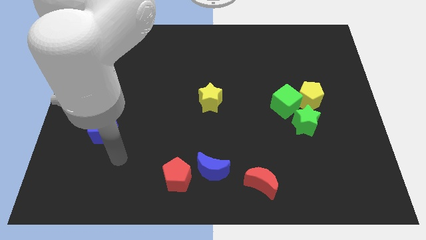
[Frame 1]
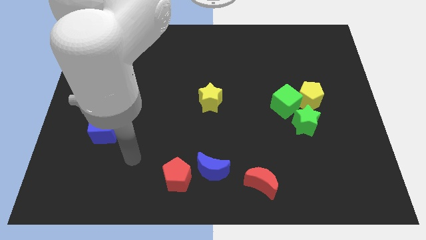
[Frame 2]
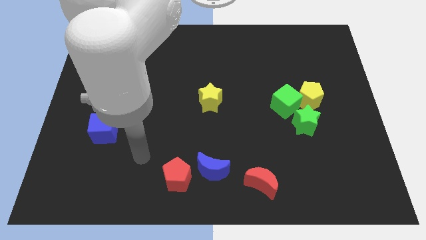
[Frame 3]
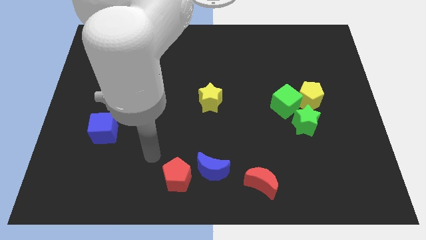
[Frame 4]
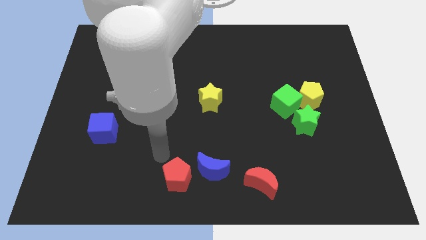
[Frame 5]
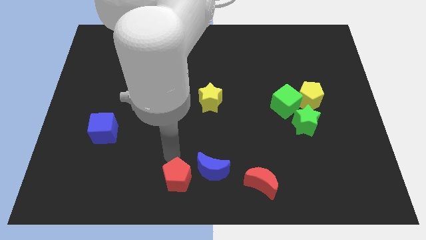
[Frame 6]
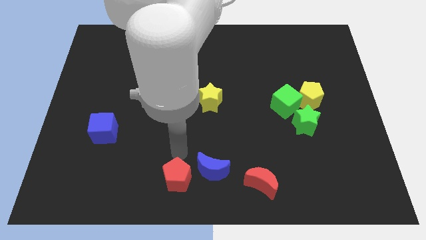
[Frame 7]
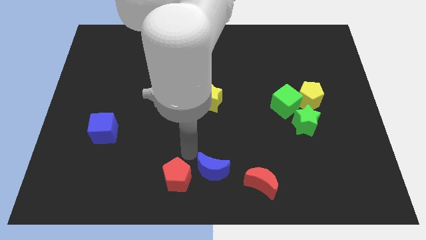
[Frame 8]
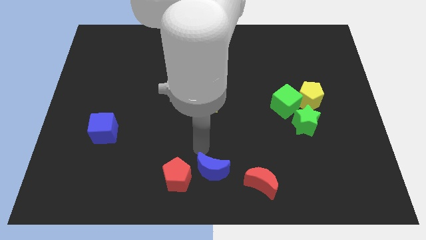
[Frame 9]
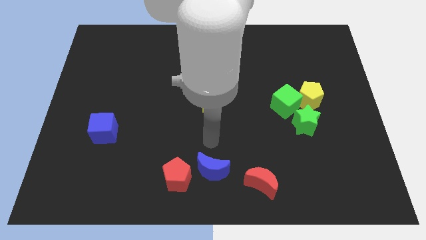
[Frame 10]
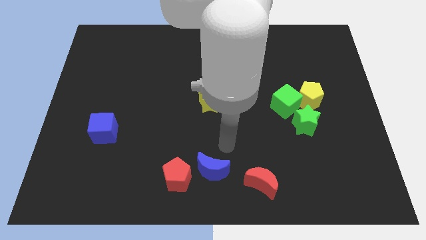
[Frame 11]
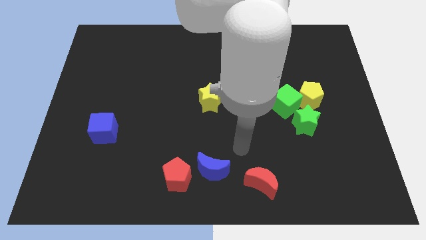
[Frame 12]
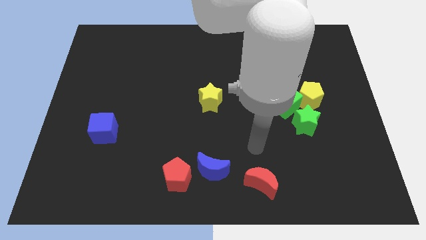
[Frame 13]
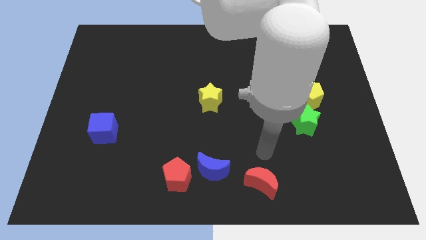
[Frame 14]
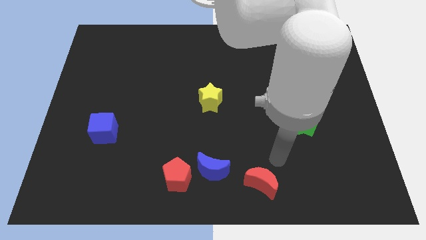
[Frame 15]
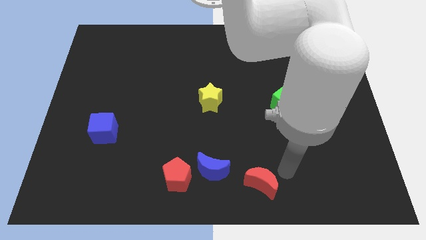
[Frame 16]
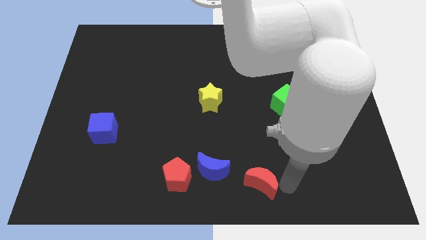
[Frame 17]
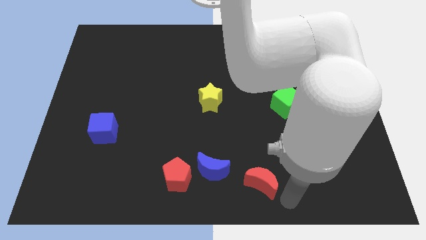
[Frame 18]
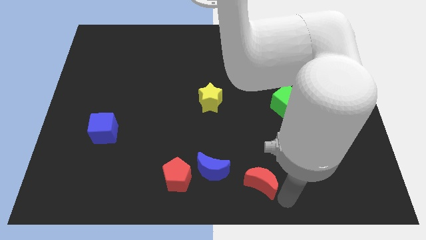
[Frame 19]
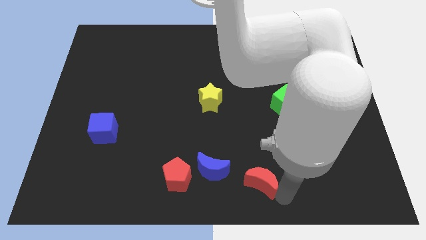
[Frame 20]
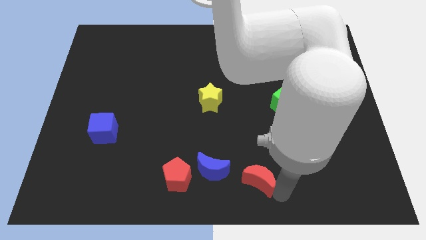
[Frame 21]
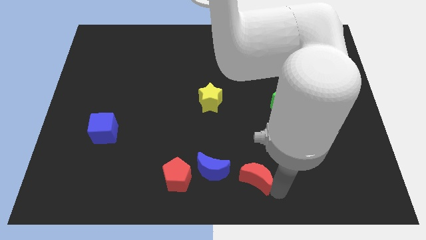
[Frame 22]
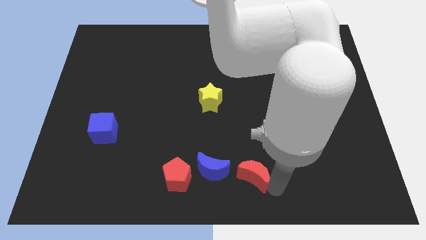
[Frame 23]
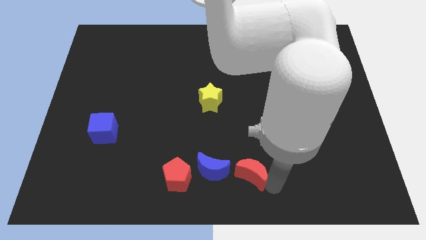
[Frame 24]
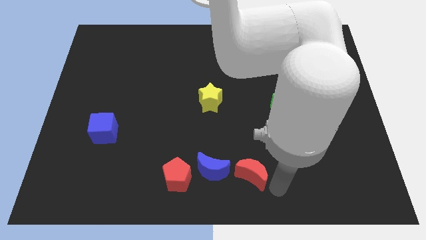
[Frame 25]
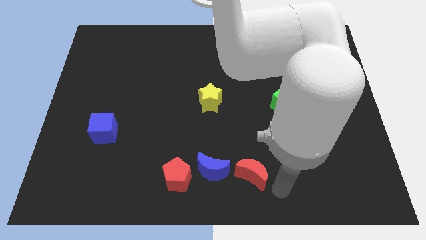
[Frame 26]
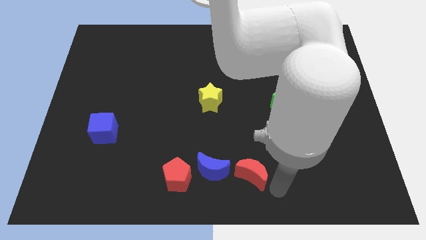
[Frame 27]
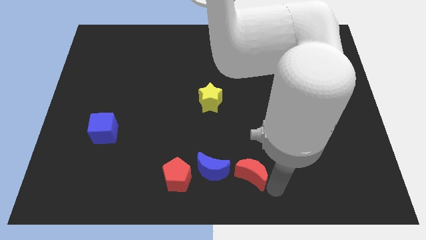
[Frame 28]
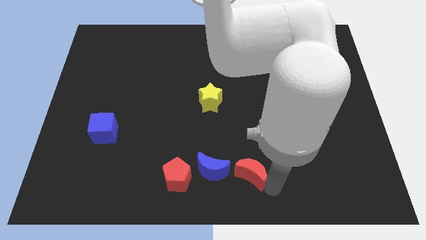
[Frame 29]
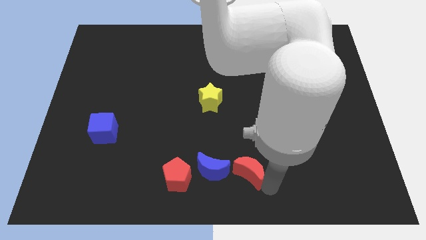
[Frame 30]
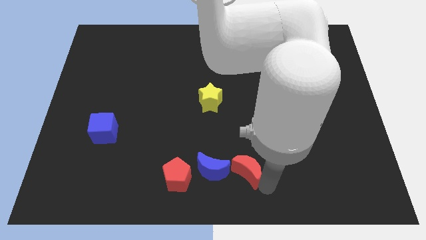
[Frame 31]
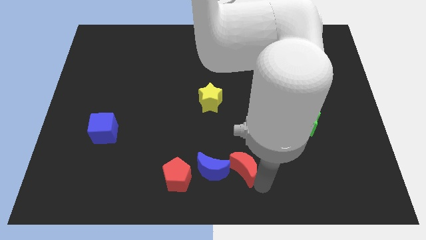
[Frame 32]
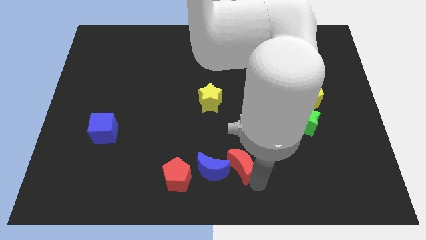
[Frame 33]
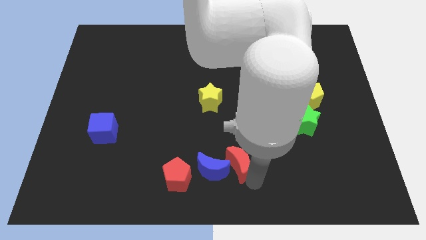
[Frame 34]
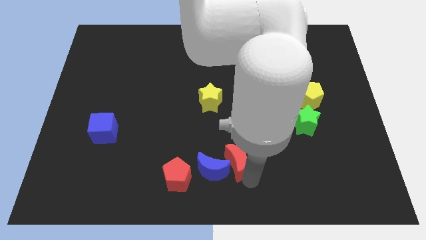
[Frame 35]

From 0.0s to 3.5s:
slide the red moon diagonally up and to the left somewhat

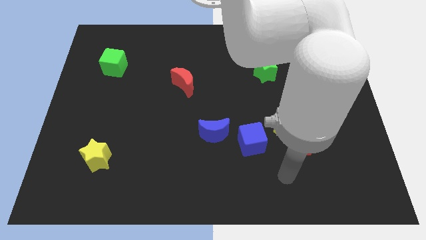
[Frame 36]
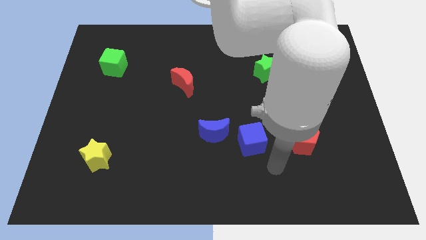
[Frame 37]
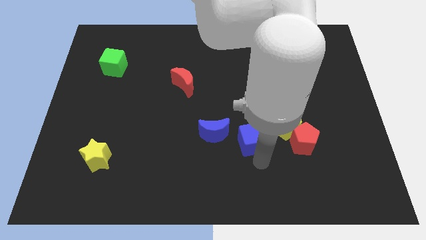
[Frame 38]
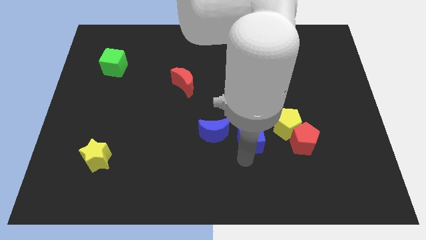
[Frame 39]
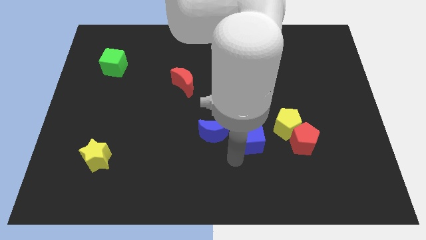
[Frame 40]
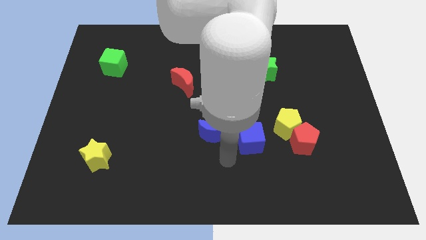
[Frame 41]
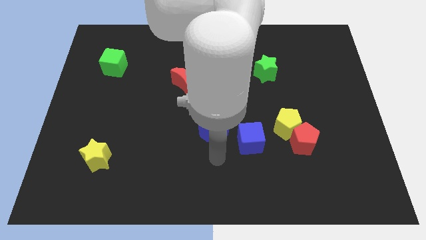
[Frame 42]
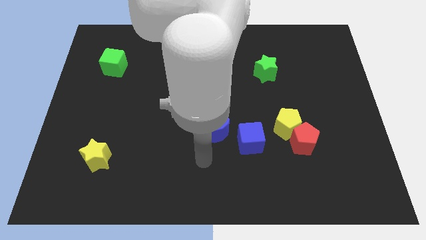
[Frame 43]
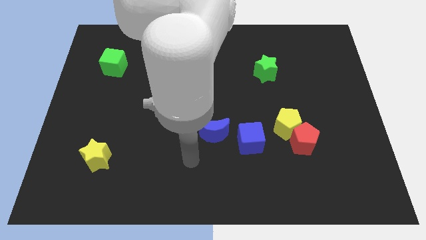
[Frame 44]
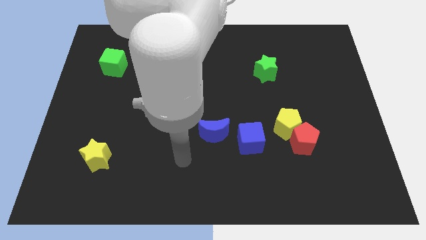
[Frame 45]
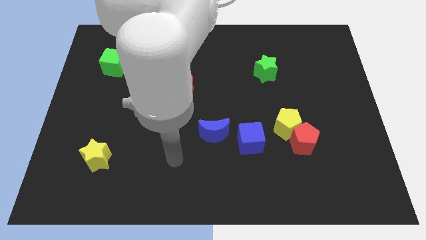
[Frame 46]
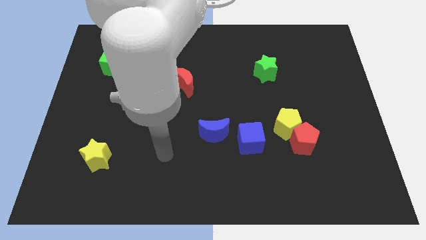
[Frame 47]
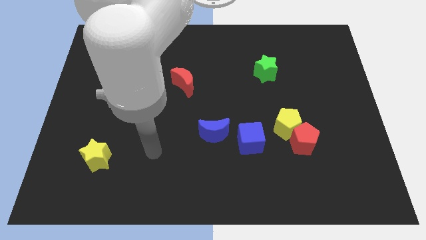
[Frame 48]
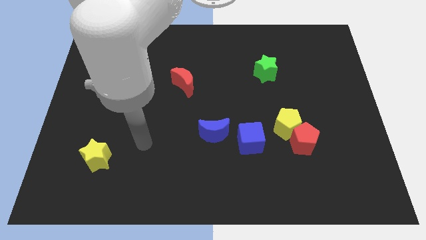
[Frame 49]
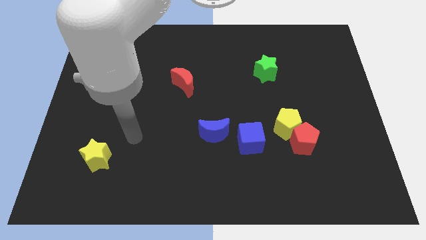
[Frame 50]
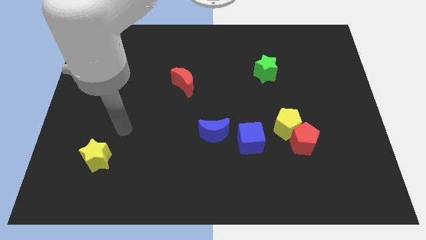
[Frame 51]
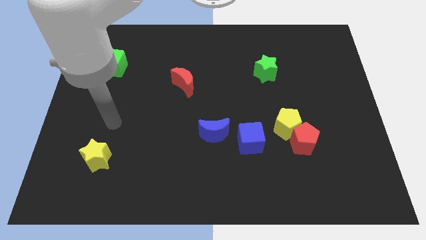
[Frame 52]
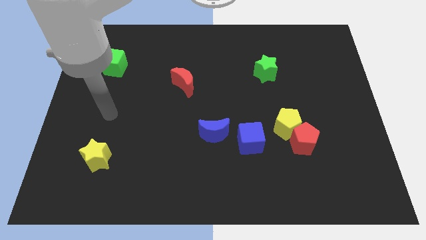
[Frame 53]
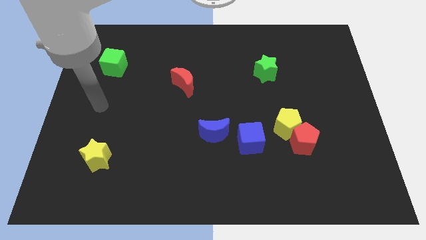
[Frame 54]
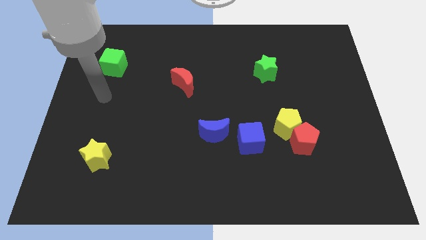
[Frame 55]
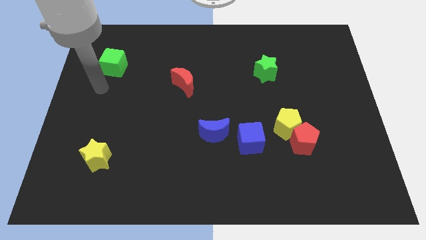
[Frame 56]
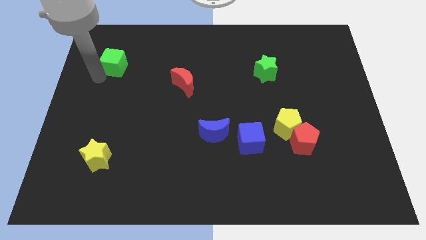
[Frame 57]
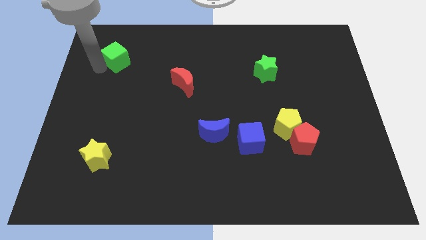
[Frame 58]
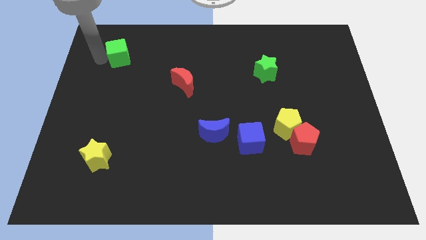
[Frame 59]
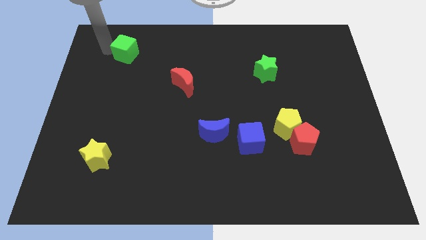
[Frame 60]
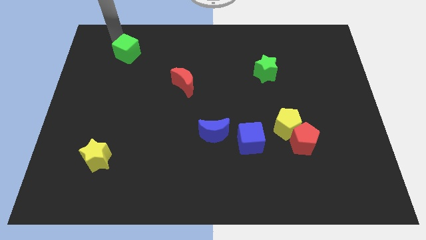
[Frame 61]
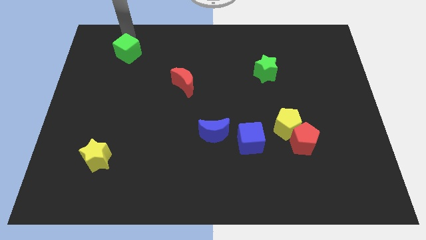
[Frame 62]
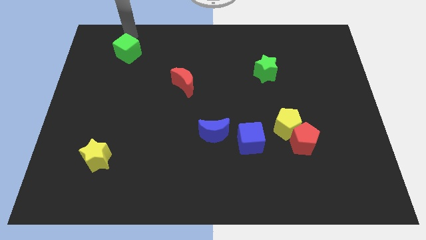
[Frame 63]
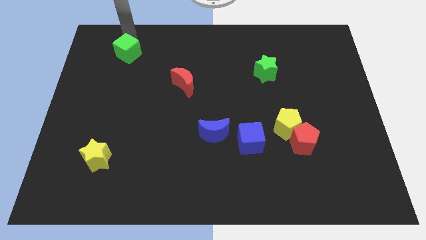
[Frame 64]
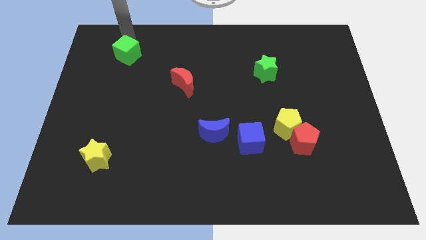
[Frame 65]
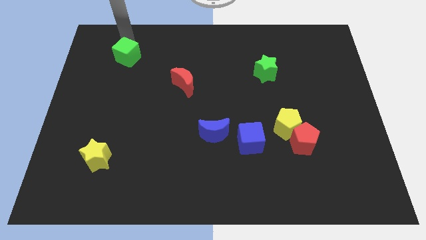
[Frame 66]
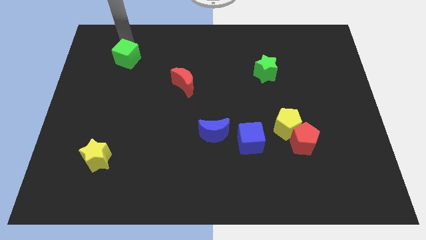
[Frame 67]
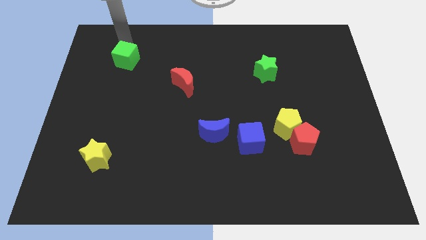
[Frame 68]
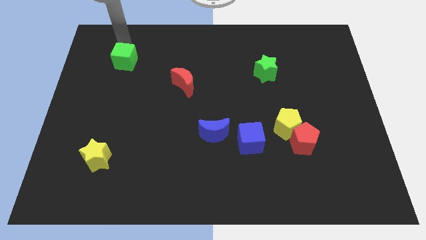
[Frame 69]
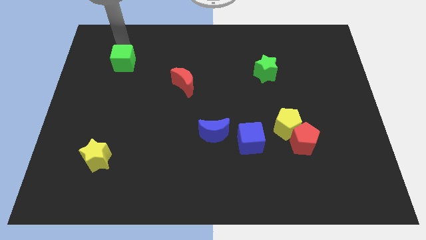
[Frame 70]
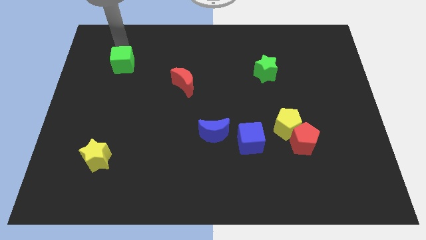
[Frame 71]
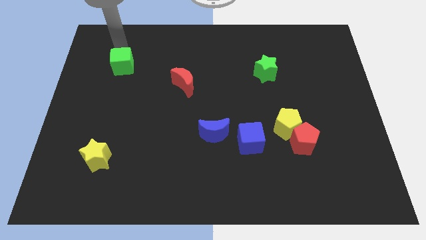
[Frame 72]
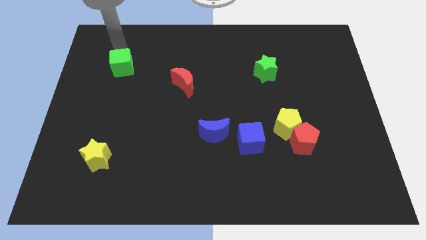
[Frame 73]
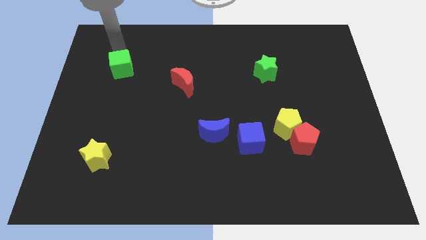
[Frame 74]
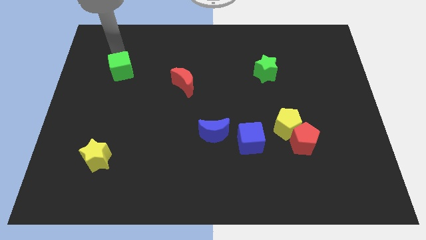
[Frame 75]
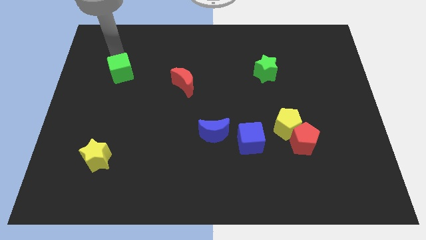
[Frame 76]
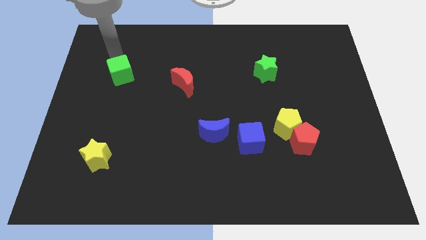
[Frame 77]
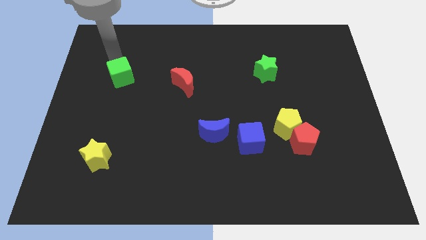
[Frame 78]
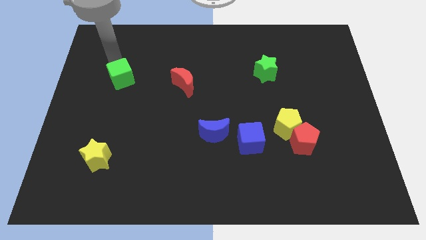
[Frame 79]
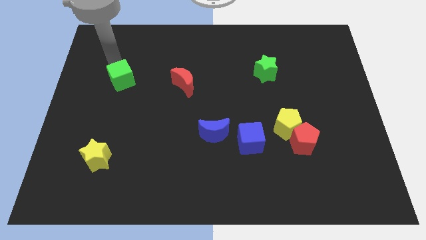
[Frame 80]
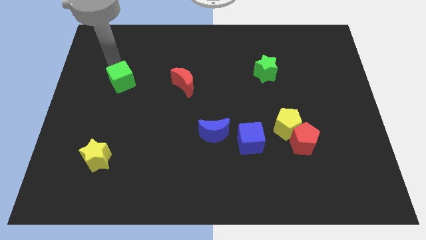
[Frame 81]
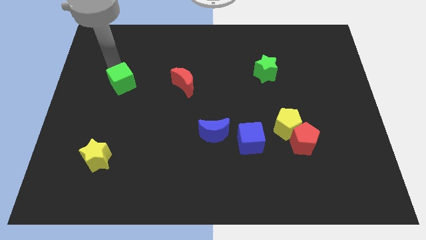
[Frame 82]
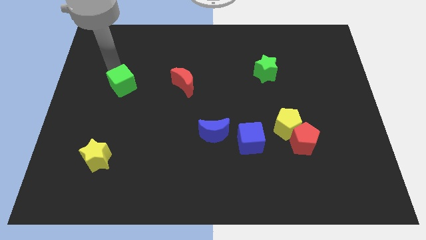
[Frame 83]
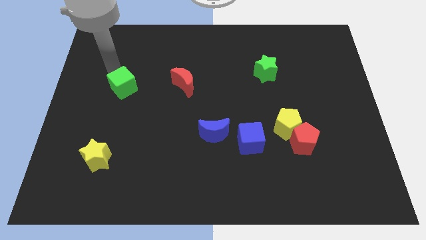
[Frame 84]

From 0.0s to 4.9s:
push the green cube down and to the right diagonally a little bit
